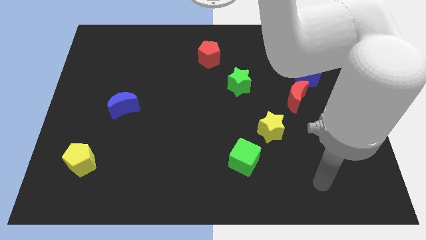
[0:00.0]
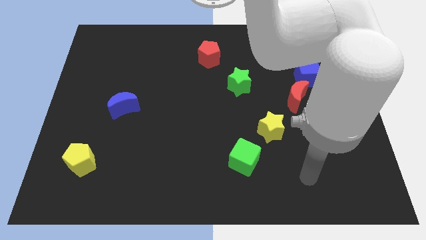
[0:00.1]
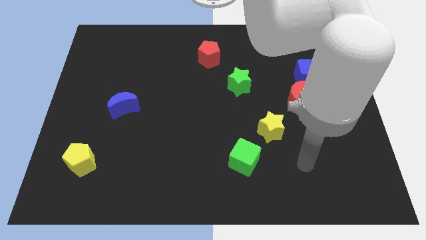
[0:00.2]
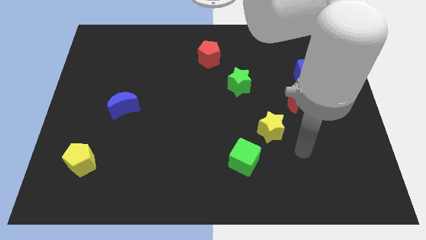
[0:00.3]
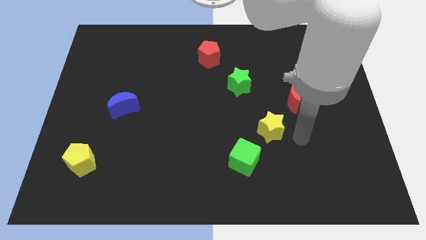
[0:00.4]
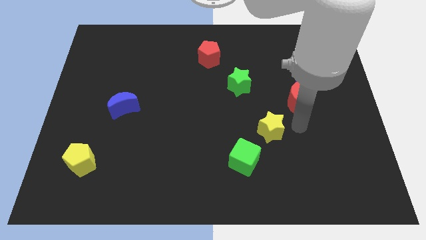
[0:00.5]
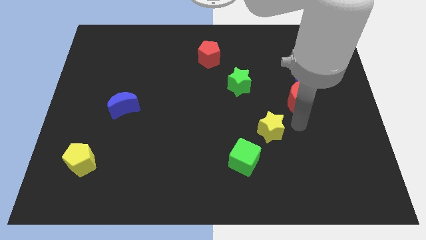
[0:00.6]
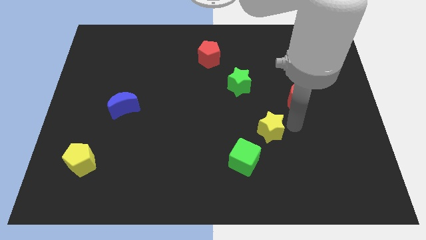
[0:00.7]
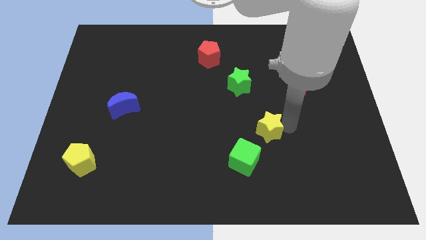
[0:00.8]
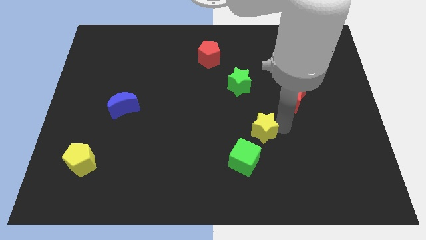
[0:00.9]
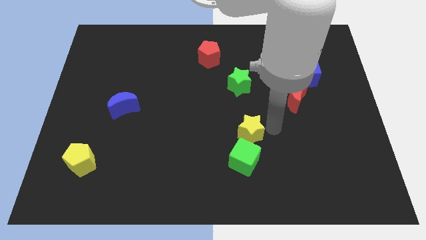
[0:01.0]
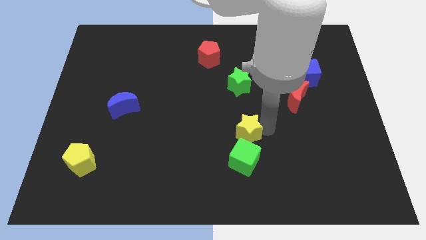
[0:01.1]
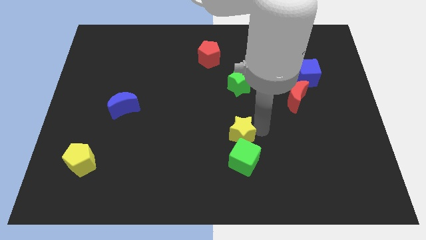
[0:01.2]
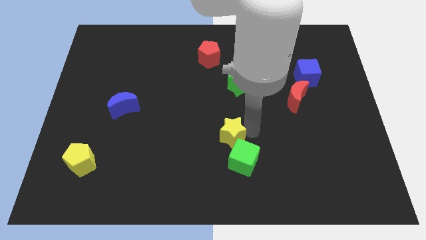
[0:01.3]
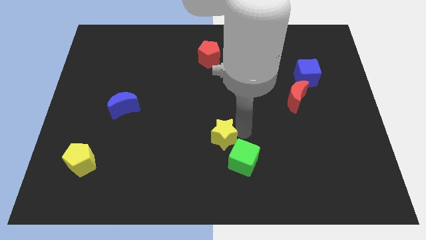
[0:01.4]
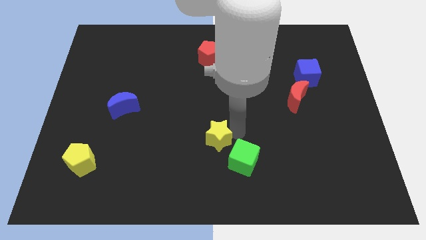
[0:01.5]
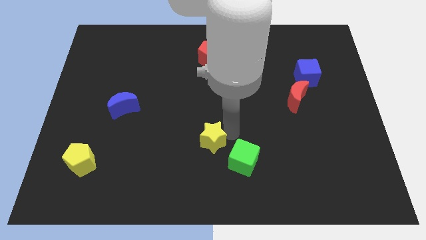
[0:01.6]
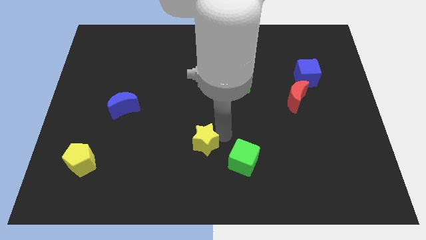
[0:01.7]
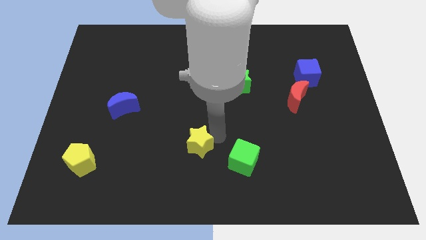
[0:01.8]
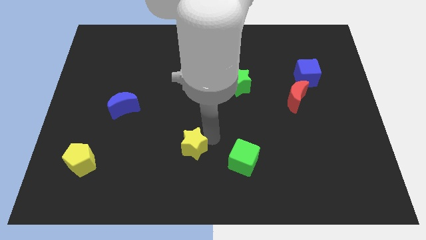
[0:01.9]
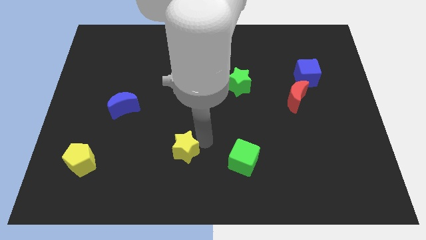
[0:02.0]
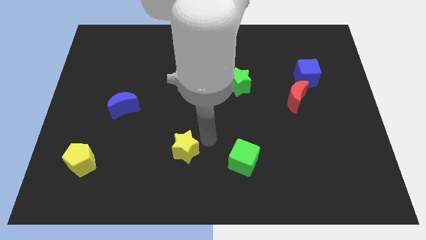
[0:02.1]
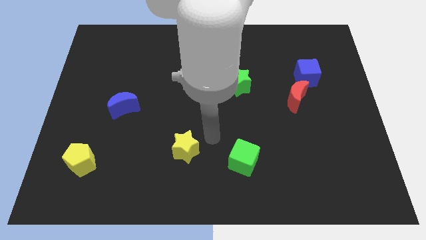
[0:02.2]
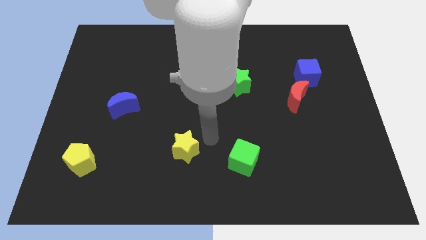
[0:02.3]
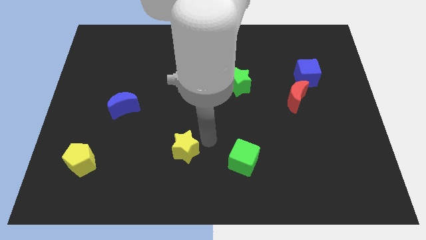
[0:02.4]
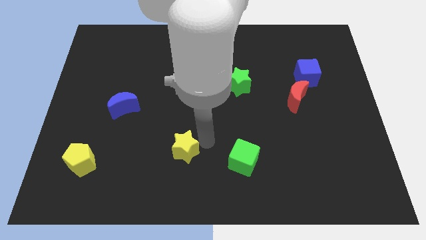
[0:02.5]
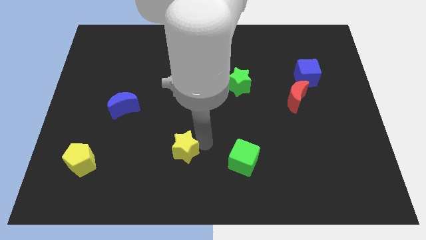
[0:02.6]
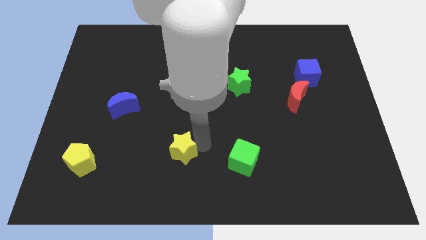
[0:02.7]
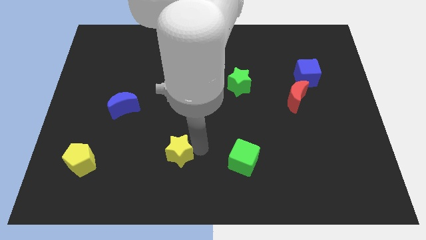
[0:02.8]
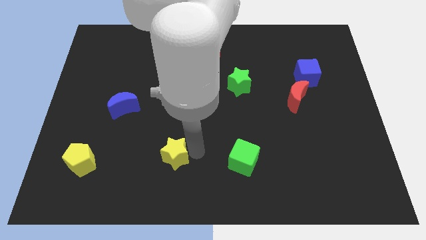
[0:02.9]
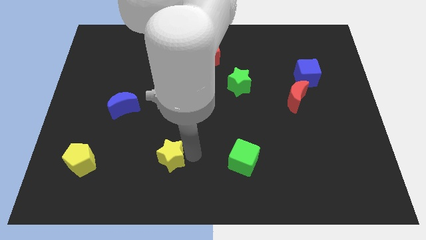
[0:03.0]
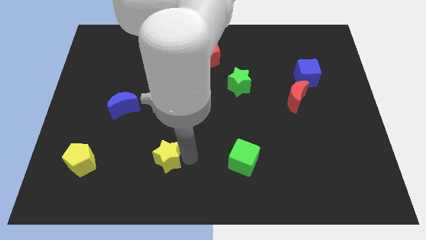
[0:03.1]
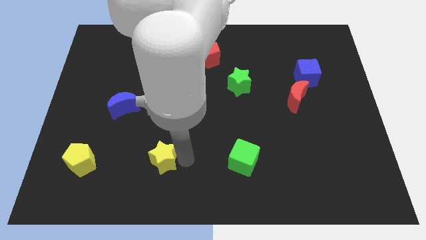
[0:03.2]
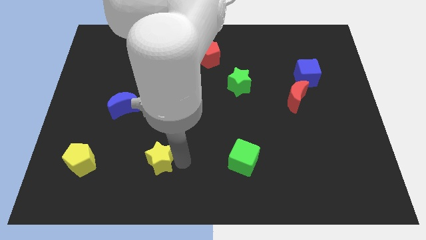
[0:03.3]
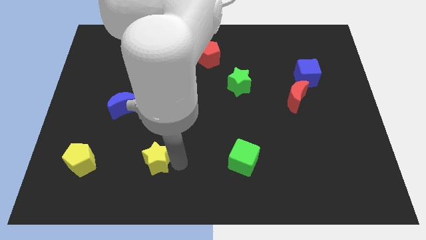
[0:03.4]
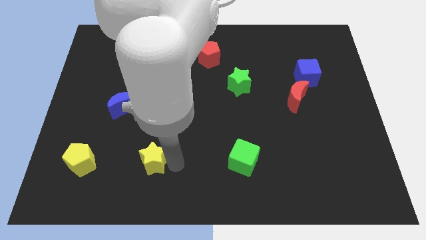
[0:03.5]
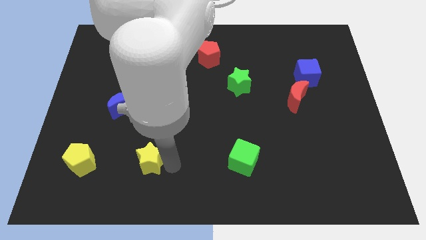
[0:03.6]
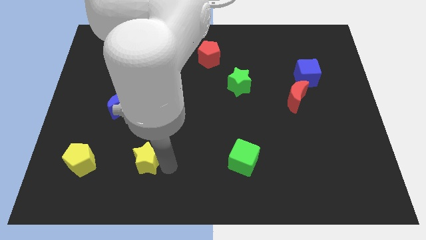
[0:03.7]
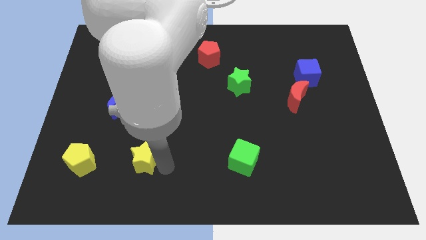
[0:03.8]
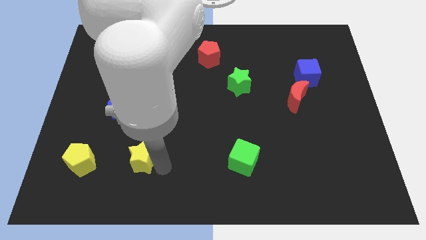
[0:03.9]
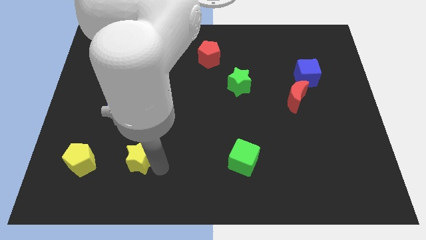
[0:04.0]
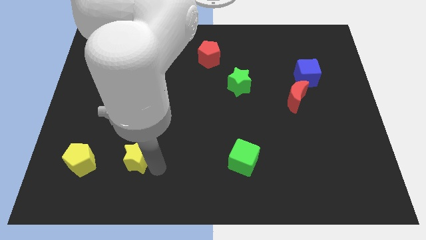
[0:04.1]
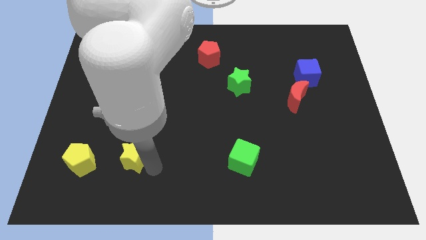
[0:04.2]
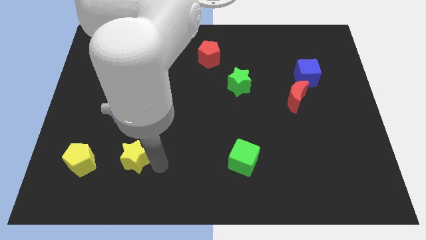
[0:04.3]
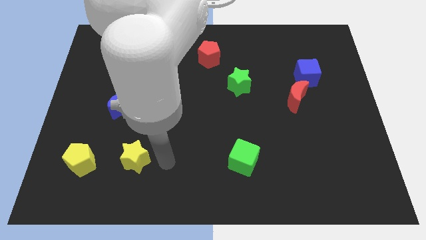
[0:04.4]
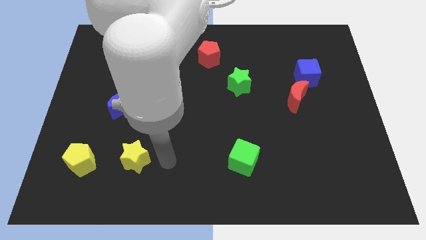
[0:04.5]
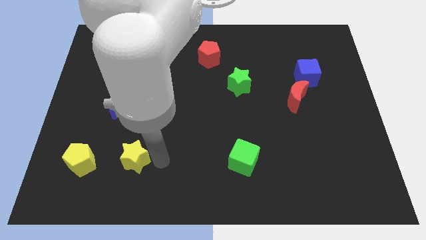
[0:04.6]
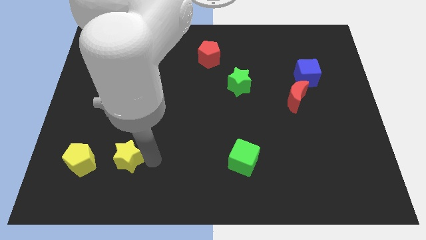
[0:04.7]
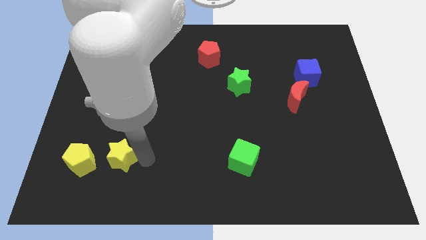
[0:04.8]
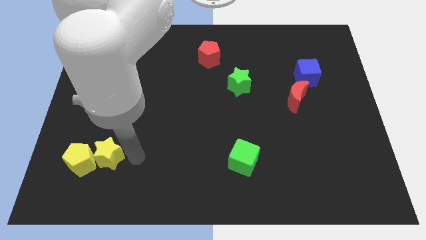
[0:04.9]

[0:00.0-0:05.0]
push the yellow star next to the yellow pentagon

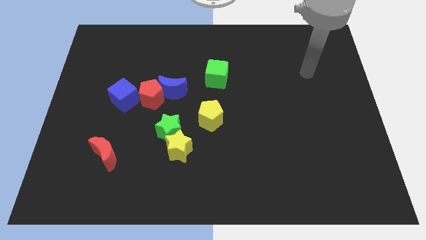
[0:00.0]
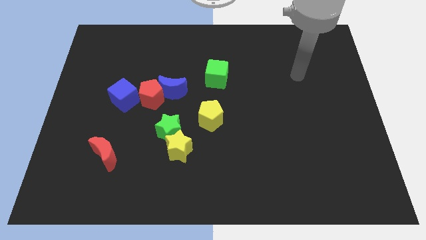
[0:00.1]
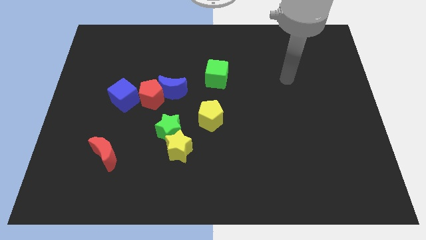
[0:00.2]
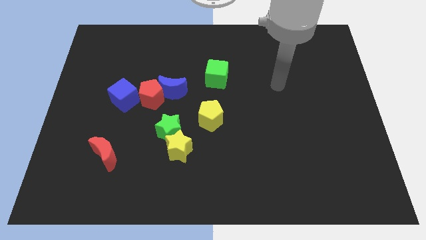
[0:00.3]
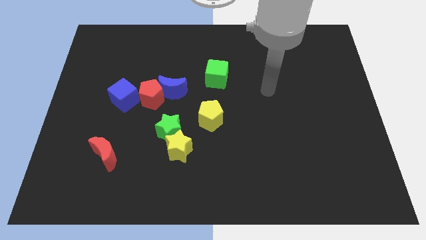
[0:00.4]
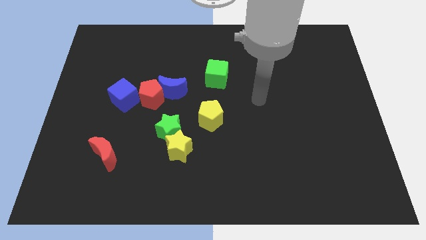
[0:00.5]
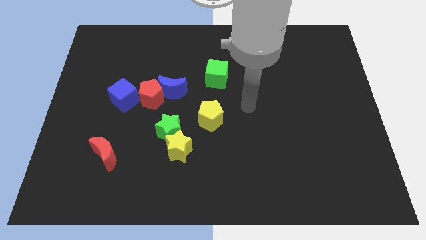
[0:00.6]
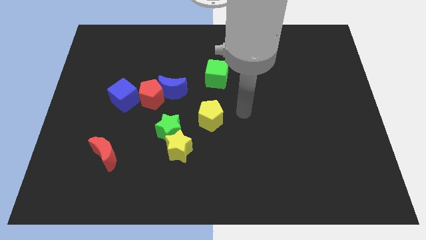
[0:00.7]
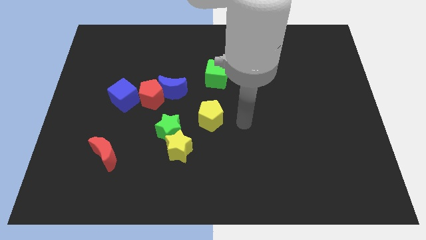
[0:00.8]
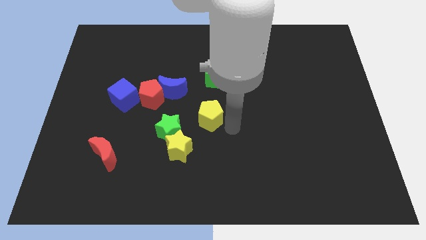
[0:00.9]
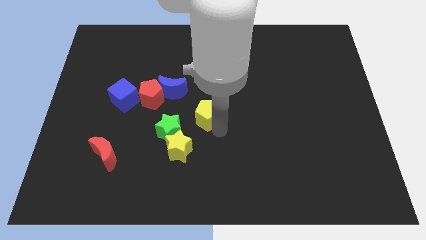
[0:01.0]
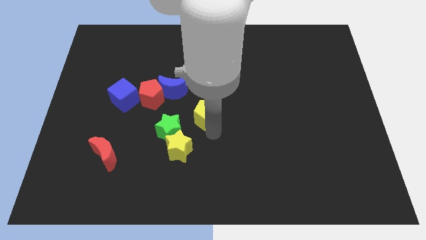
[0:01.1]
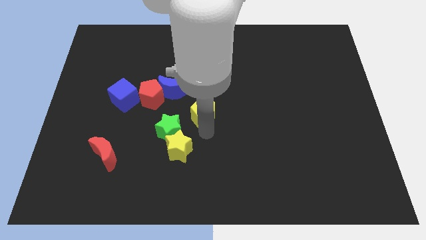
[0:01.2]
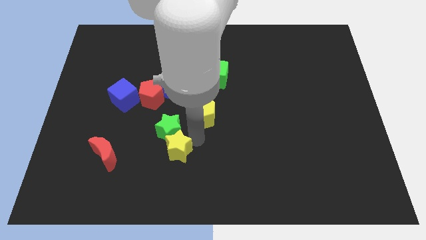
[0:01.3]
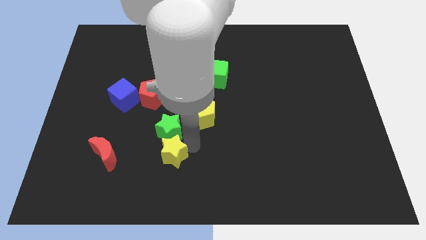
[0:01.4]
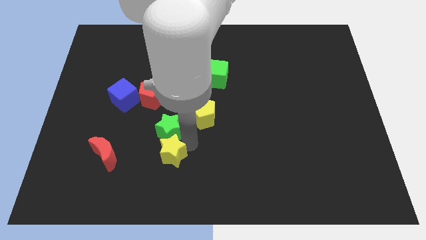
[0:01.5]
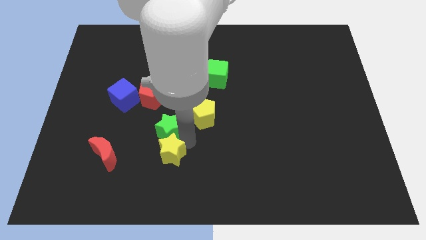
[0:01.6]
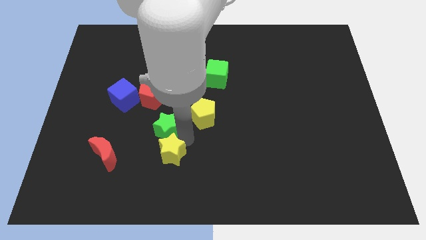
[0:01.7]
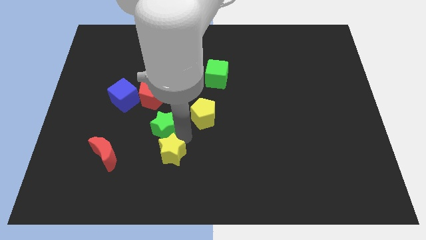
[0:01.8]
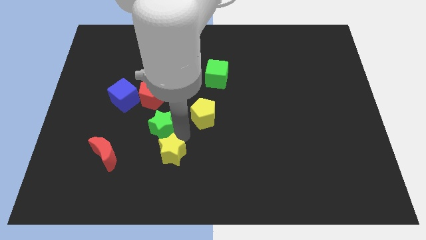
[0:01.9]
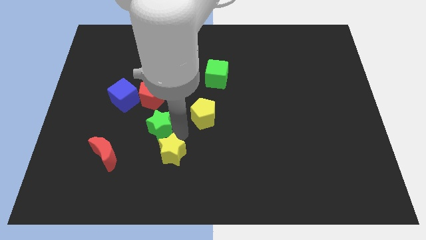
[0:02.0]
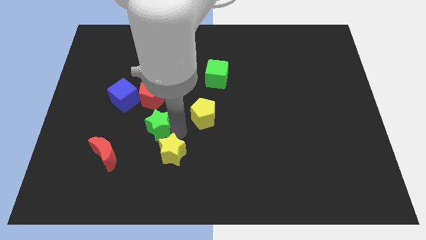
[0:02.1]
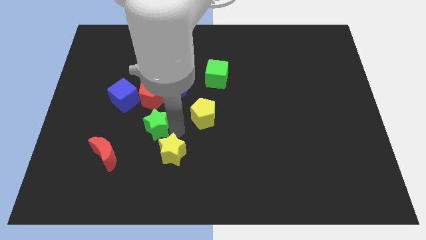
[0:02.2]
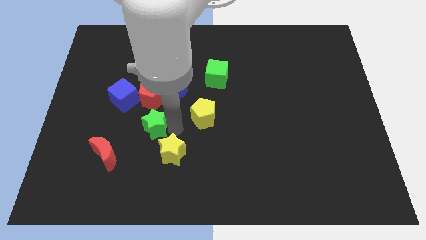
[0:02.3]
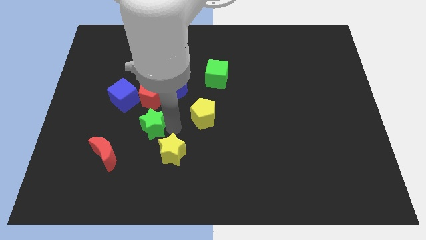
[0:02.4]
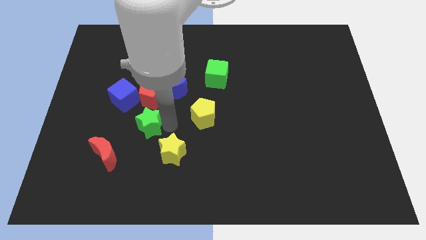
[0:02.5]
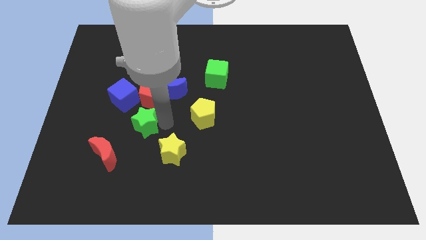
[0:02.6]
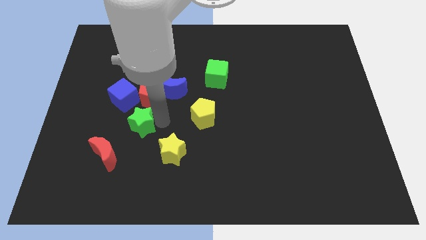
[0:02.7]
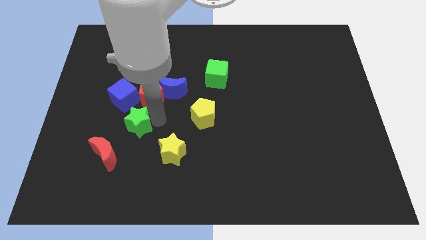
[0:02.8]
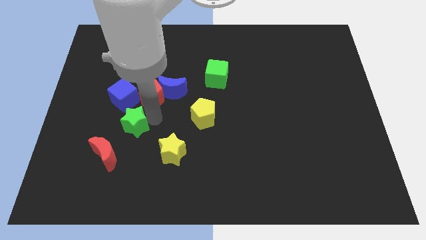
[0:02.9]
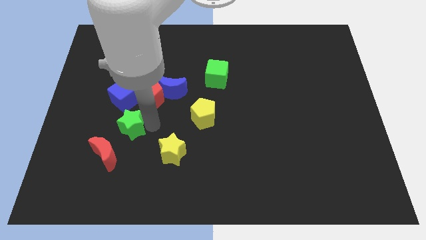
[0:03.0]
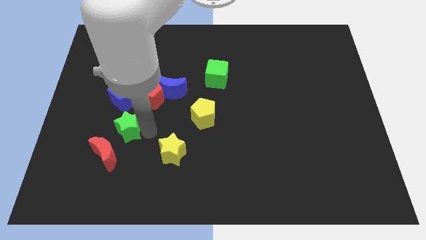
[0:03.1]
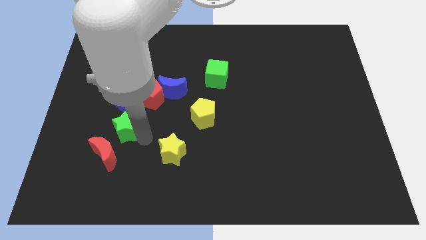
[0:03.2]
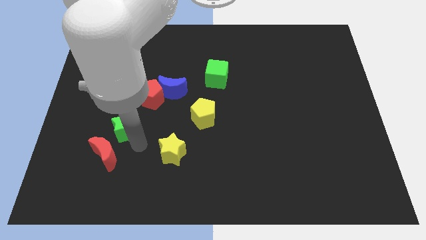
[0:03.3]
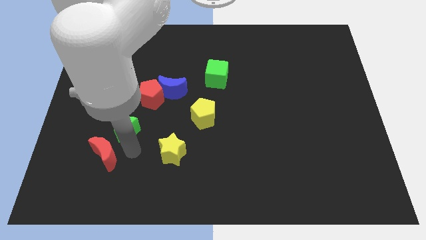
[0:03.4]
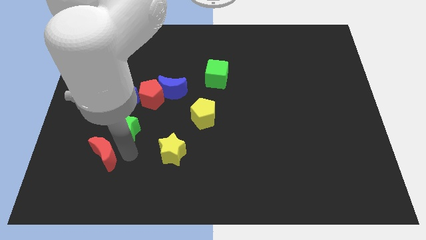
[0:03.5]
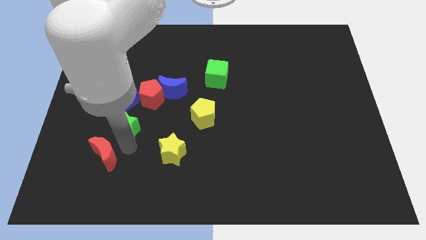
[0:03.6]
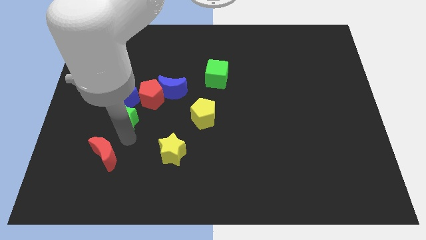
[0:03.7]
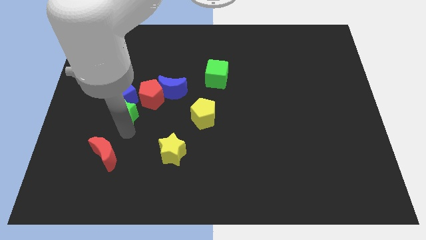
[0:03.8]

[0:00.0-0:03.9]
move the green star towards the blue cube
